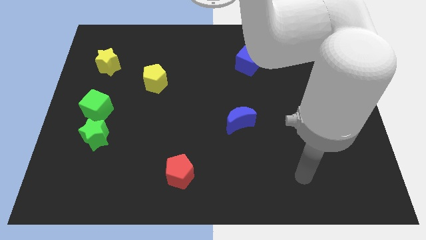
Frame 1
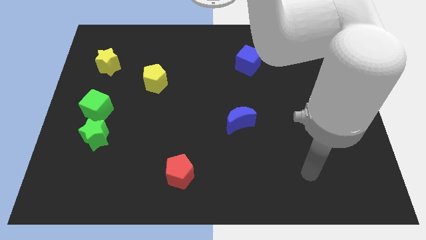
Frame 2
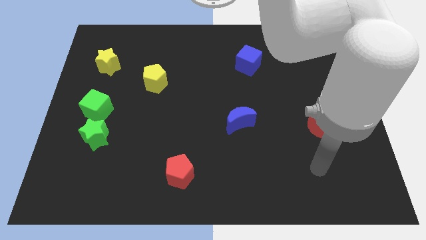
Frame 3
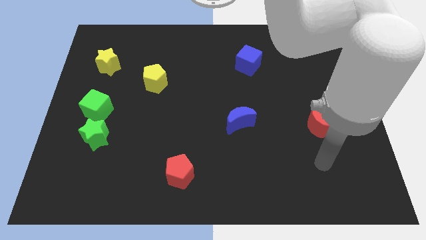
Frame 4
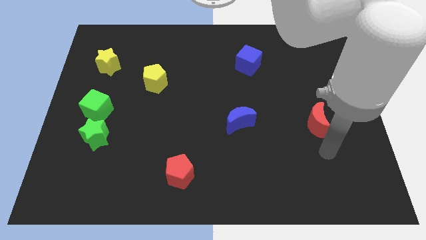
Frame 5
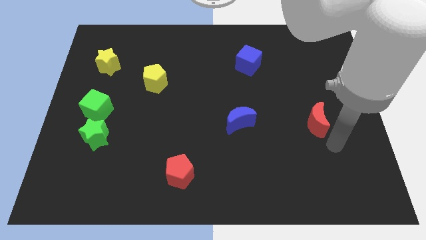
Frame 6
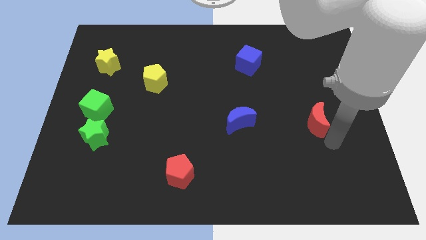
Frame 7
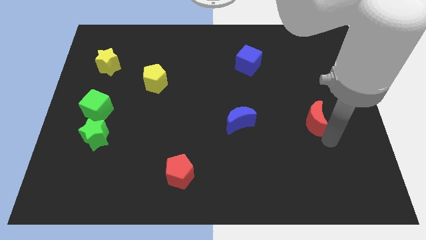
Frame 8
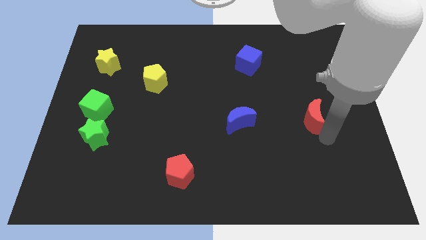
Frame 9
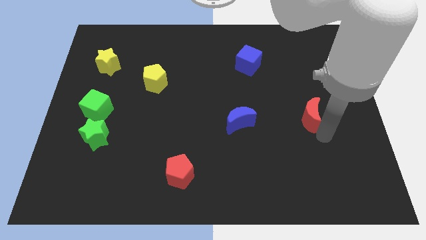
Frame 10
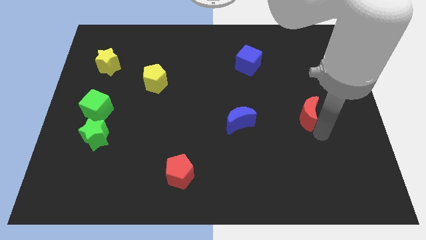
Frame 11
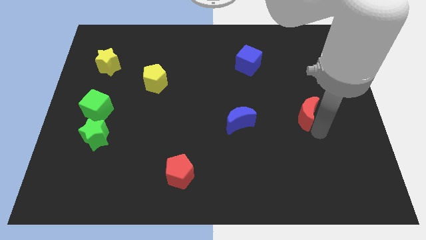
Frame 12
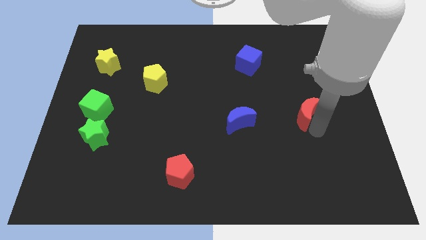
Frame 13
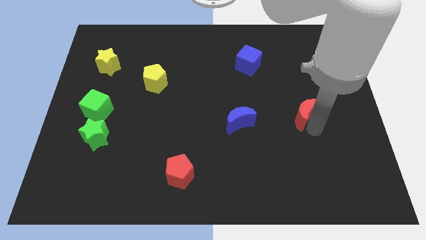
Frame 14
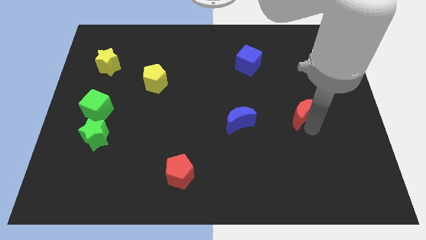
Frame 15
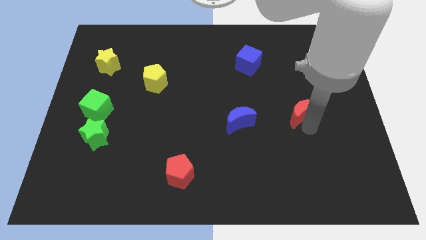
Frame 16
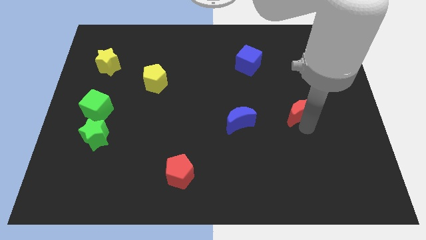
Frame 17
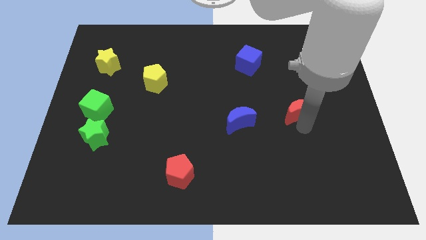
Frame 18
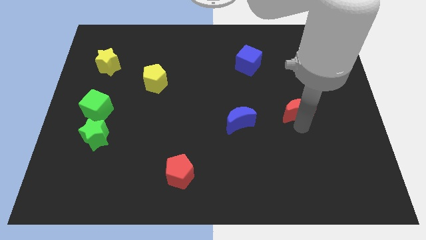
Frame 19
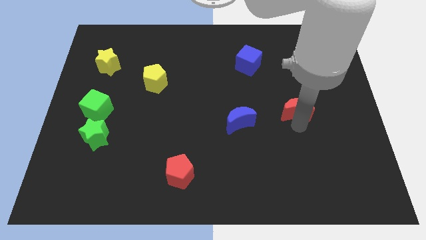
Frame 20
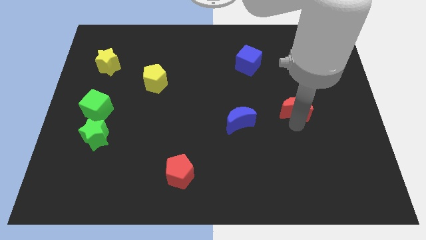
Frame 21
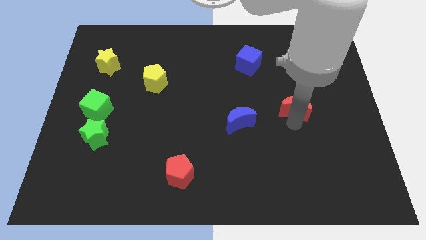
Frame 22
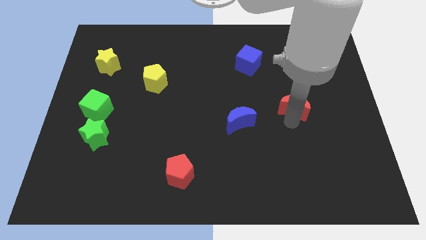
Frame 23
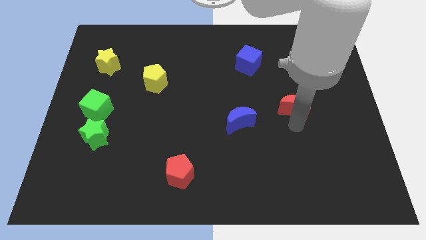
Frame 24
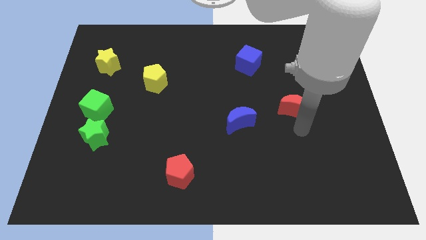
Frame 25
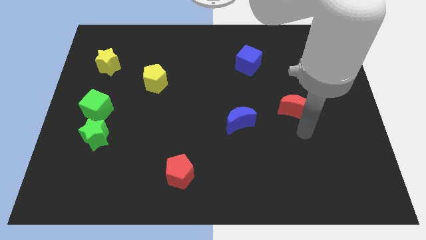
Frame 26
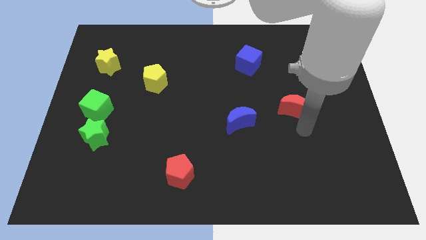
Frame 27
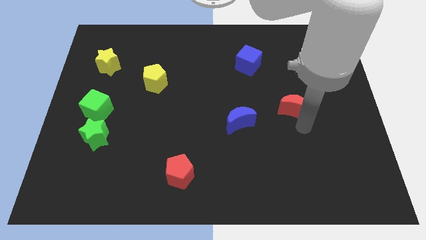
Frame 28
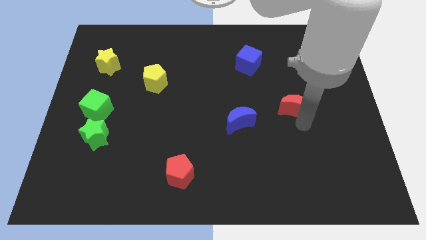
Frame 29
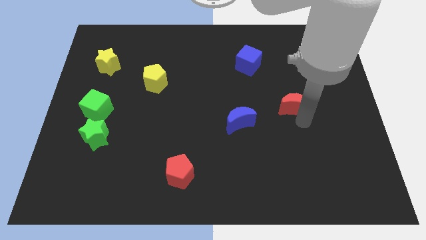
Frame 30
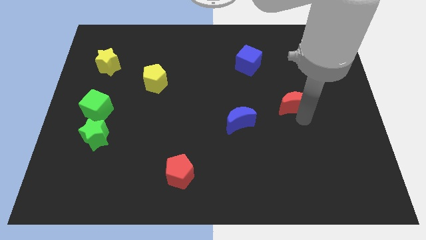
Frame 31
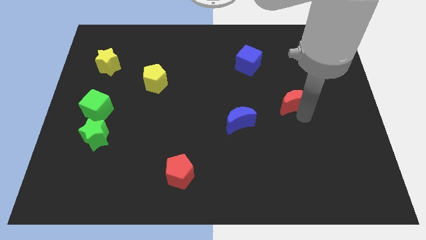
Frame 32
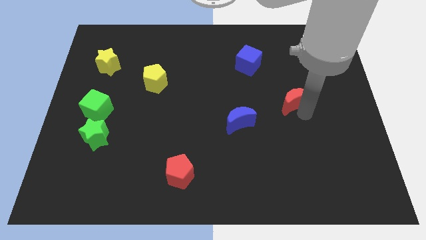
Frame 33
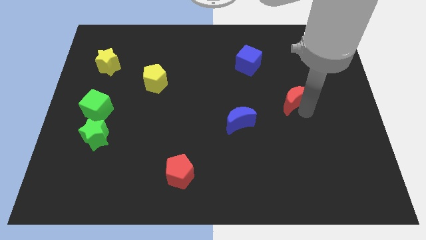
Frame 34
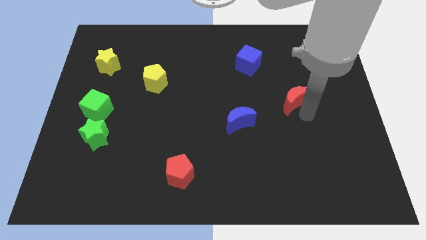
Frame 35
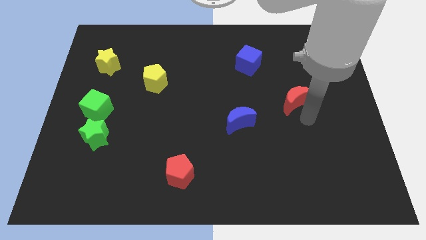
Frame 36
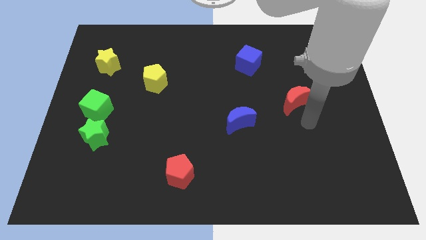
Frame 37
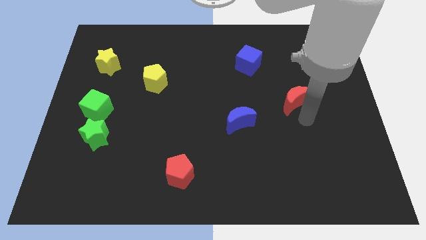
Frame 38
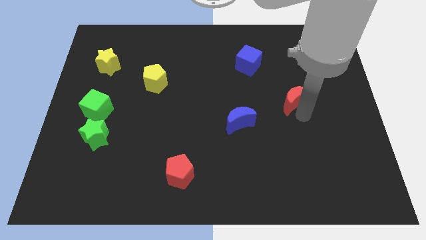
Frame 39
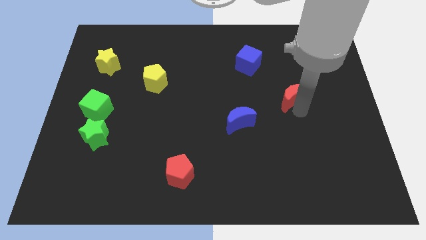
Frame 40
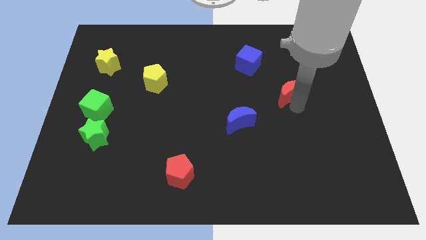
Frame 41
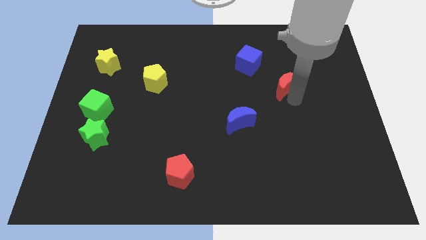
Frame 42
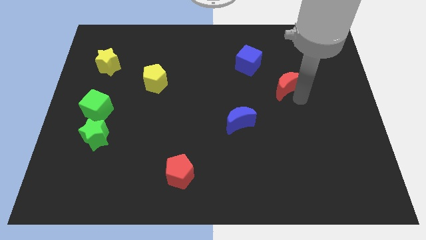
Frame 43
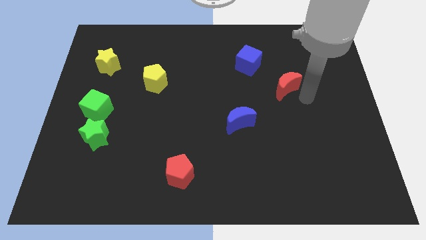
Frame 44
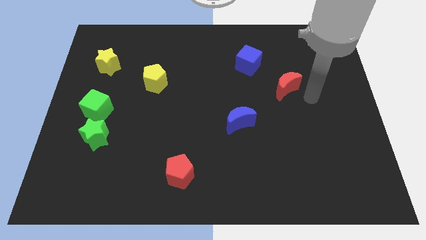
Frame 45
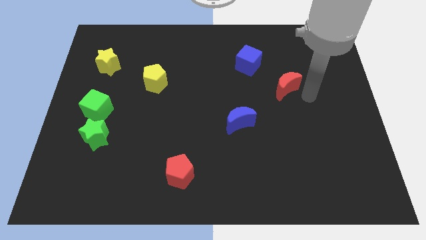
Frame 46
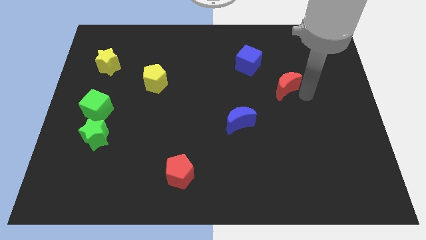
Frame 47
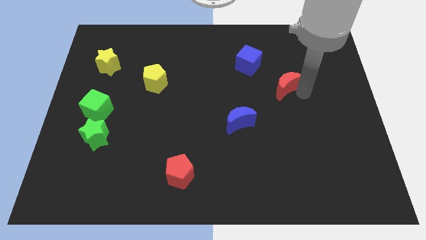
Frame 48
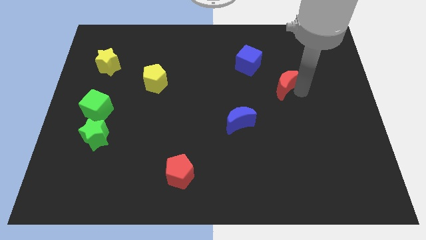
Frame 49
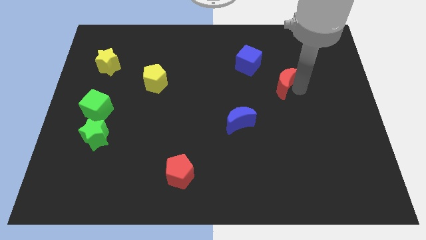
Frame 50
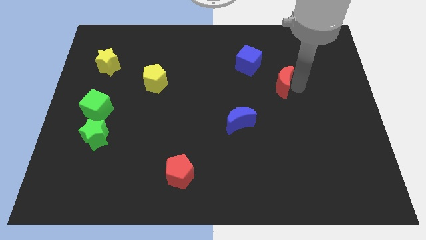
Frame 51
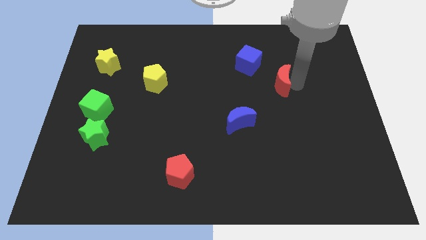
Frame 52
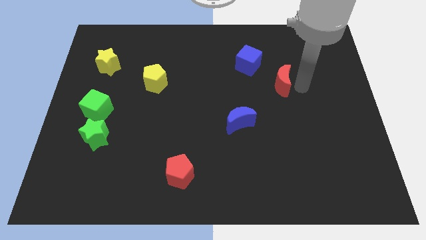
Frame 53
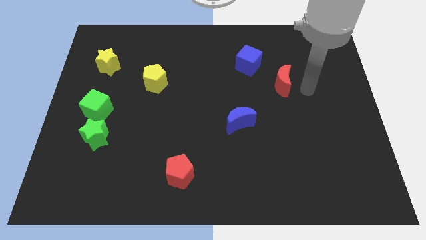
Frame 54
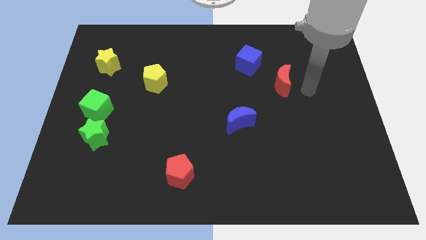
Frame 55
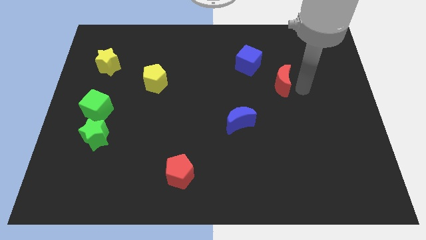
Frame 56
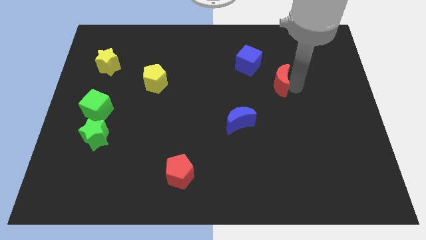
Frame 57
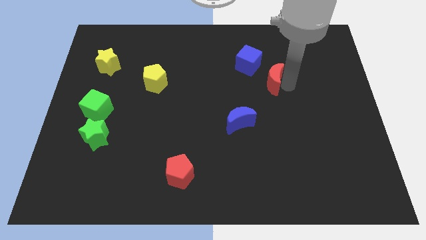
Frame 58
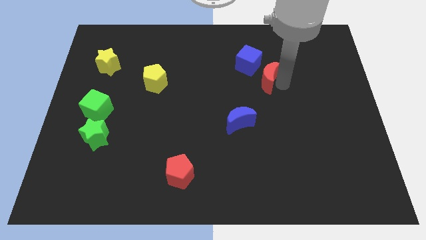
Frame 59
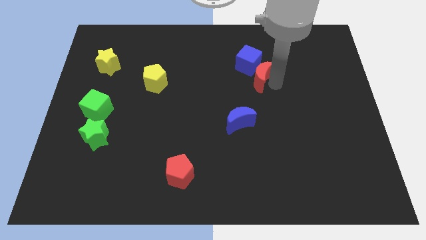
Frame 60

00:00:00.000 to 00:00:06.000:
move the red moon close to the blue cube

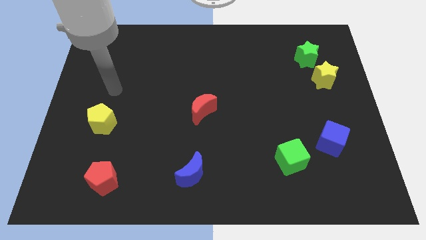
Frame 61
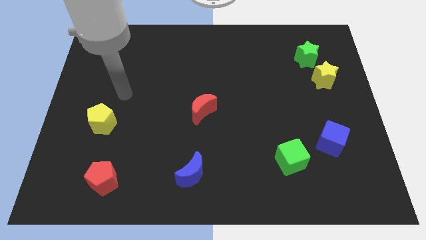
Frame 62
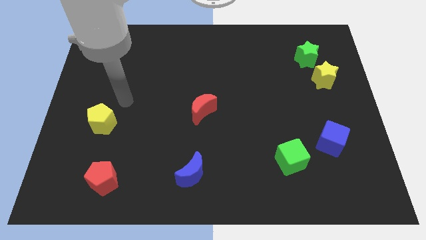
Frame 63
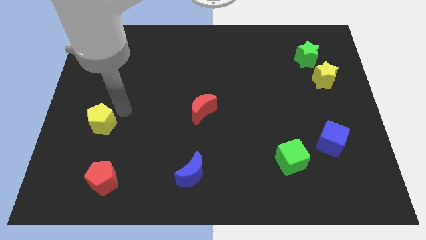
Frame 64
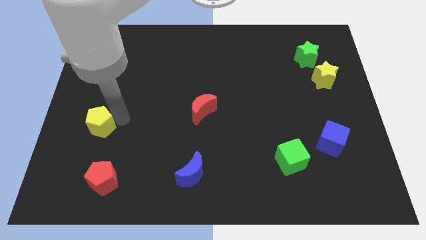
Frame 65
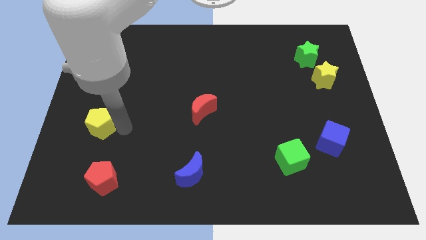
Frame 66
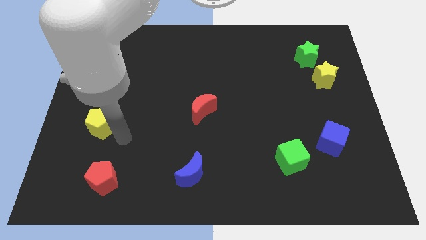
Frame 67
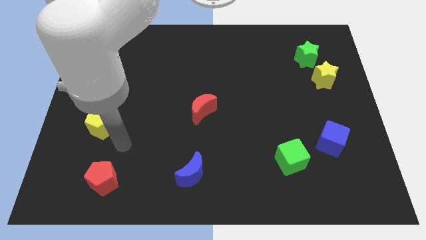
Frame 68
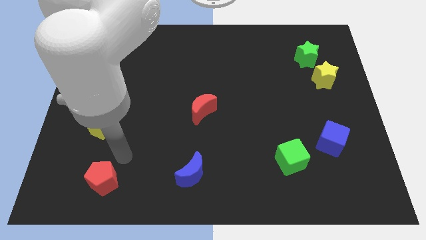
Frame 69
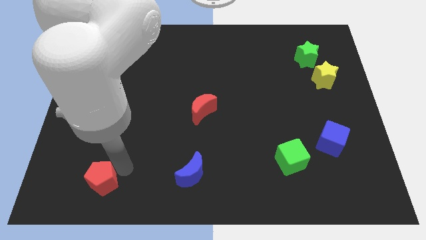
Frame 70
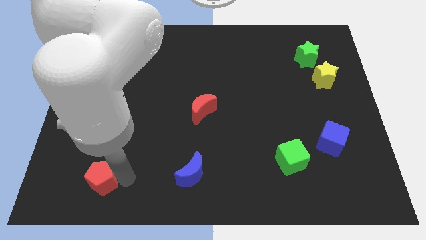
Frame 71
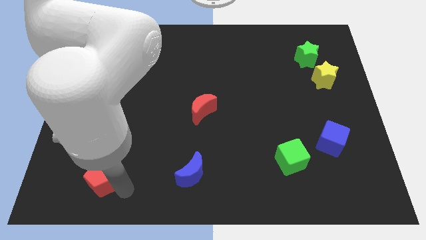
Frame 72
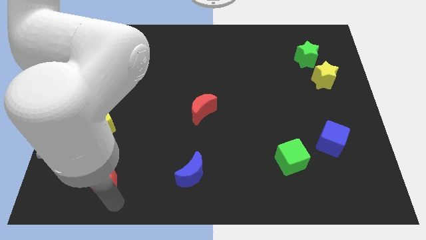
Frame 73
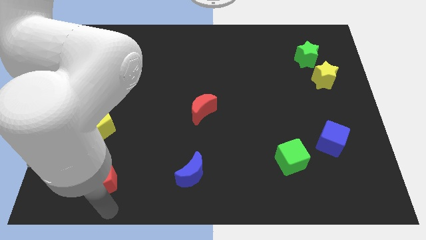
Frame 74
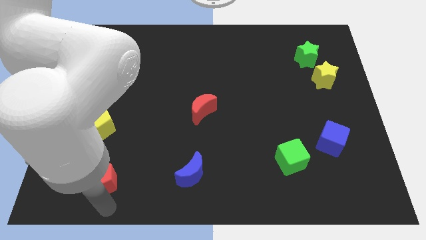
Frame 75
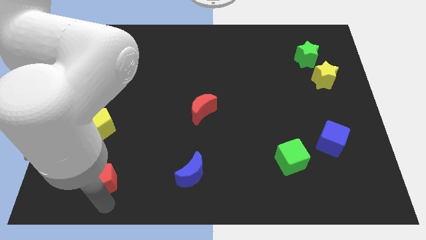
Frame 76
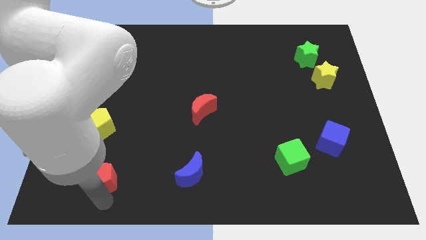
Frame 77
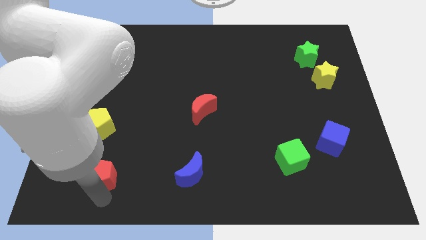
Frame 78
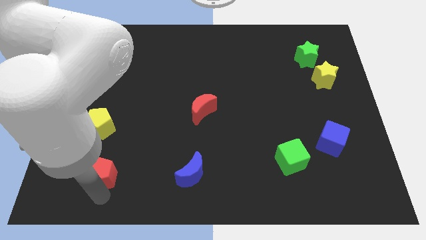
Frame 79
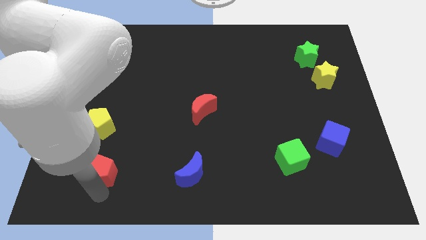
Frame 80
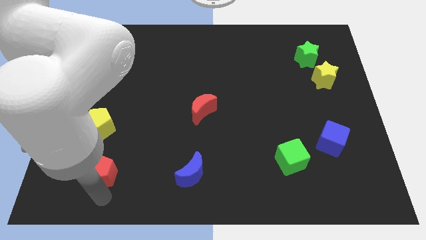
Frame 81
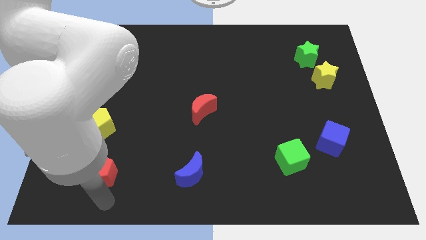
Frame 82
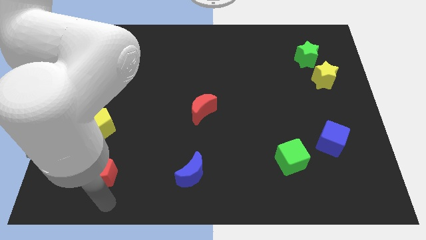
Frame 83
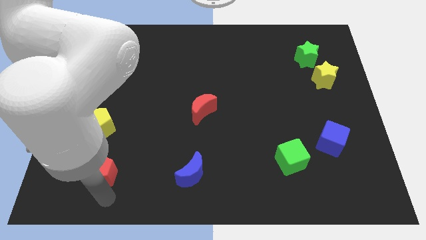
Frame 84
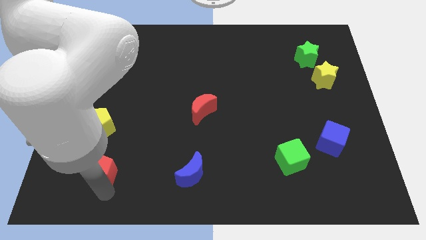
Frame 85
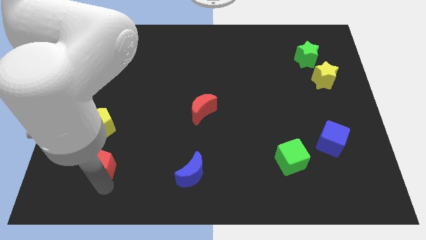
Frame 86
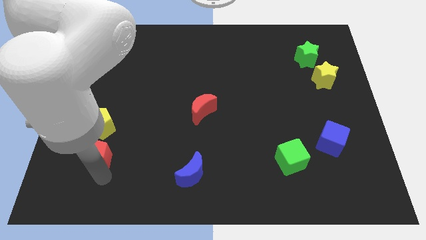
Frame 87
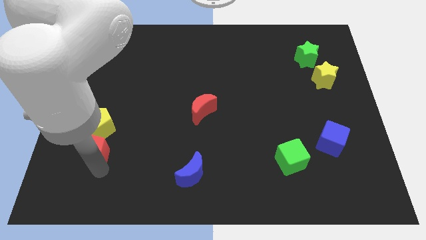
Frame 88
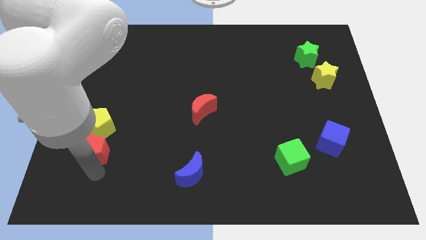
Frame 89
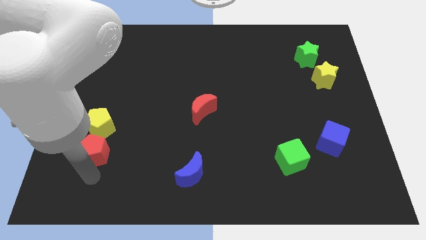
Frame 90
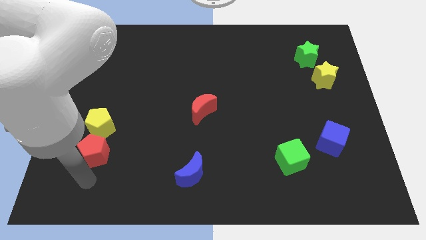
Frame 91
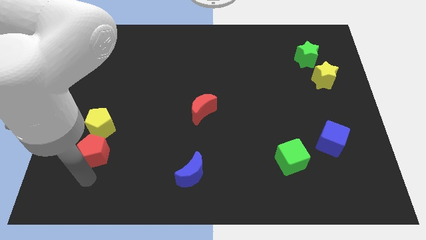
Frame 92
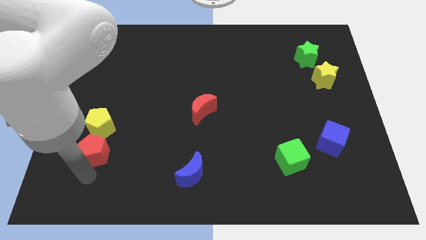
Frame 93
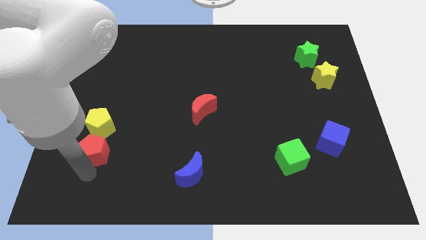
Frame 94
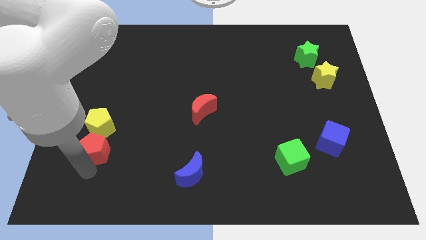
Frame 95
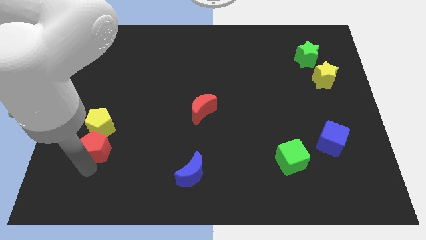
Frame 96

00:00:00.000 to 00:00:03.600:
move the red pentagon close to the yellow pentagon
